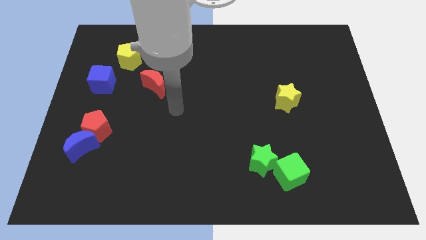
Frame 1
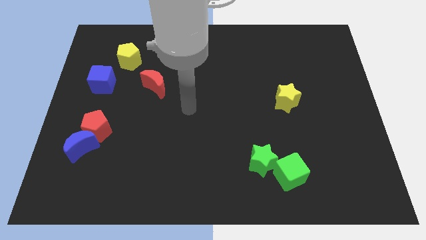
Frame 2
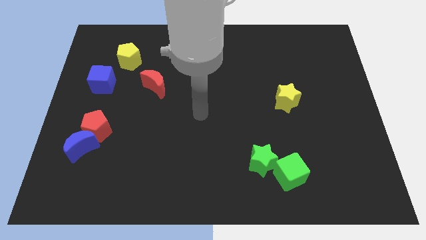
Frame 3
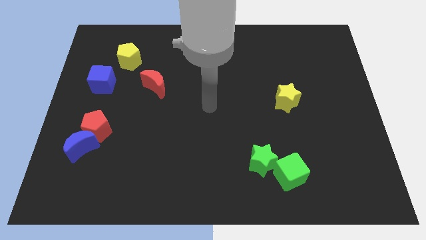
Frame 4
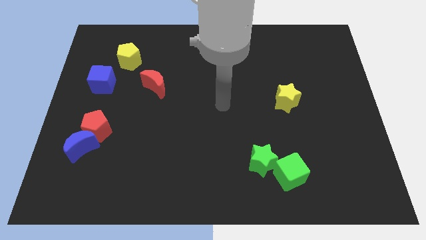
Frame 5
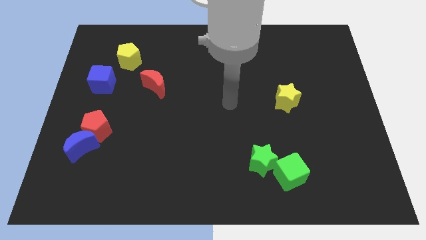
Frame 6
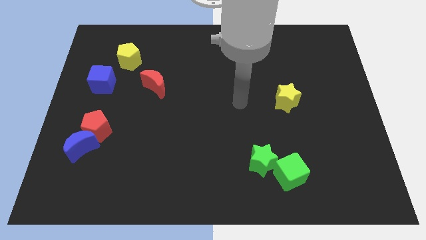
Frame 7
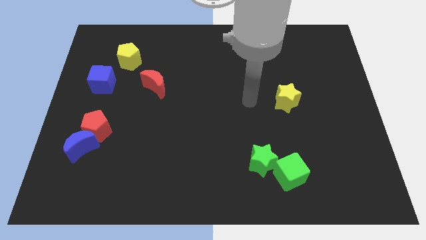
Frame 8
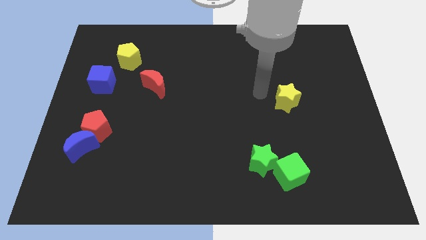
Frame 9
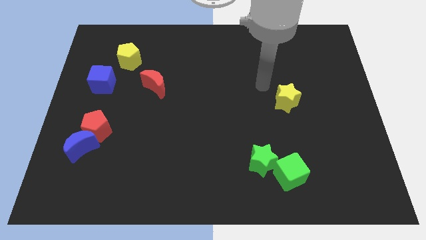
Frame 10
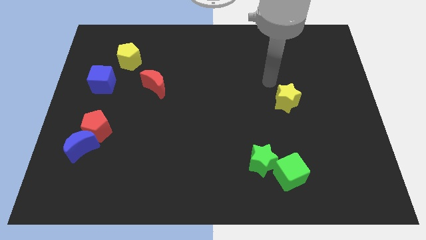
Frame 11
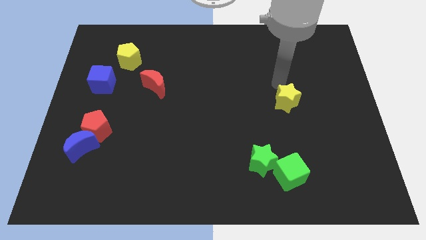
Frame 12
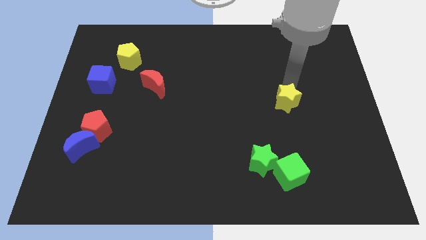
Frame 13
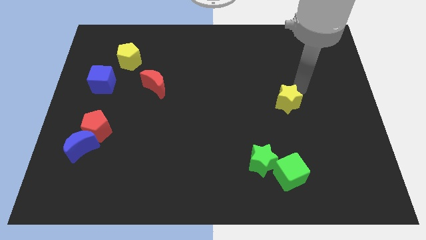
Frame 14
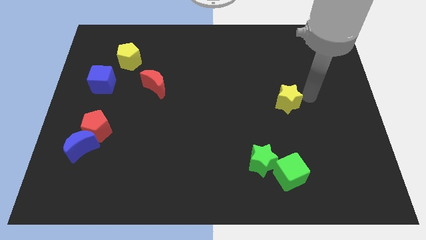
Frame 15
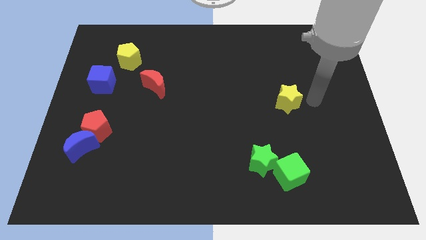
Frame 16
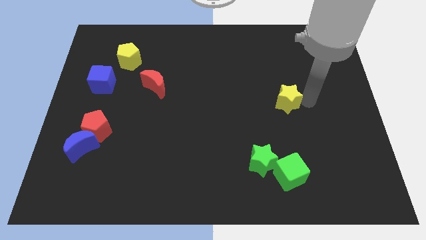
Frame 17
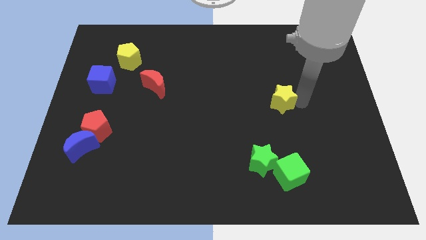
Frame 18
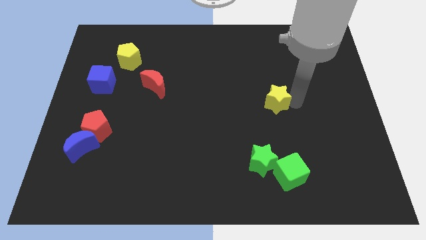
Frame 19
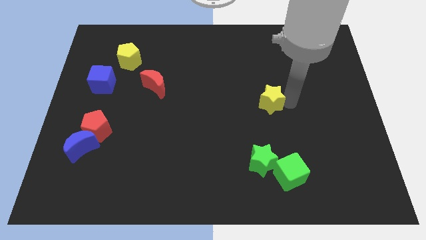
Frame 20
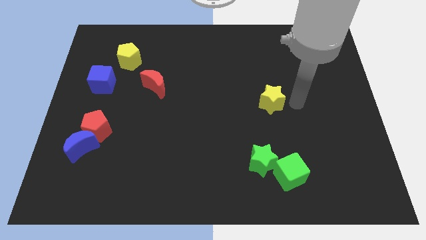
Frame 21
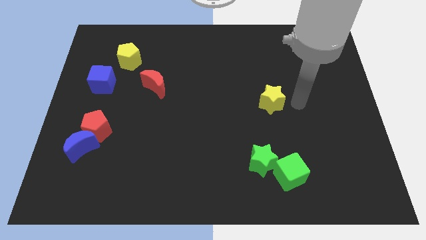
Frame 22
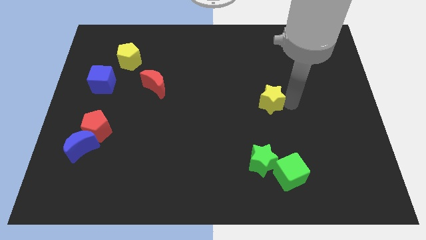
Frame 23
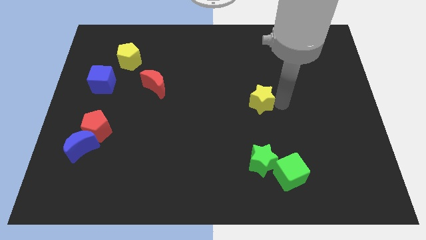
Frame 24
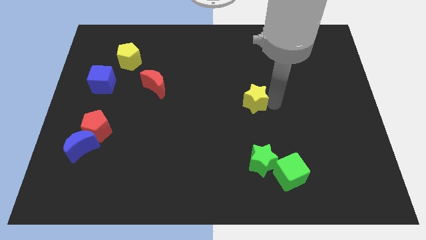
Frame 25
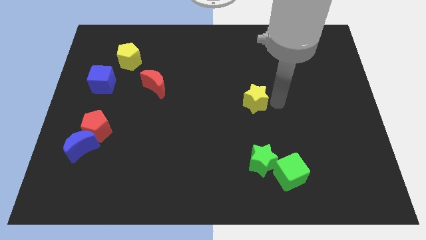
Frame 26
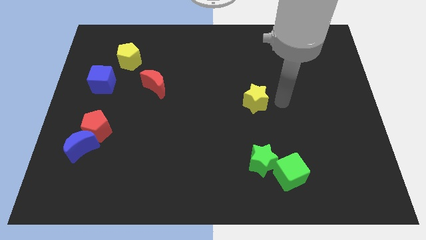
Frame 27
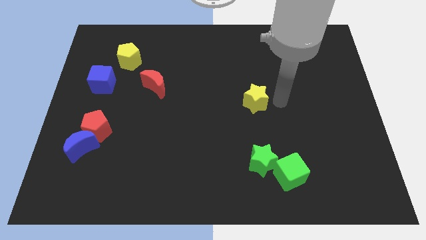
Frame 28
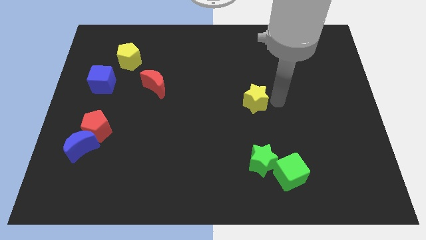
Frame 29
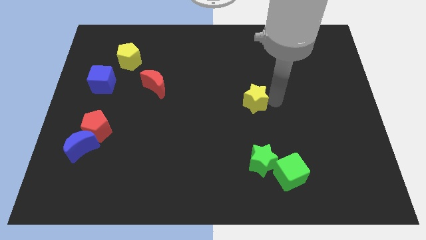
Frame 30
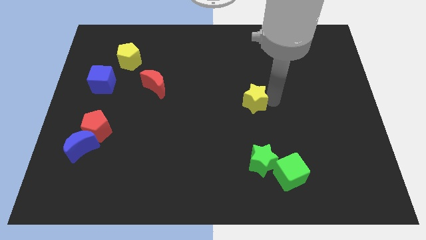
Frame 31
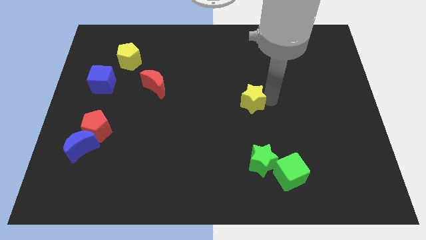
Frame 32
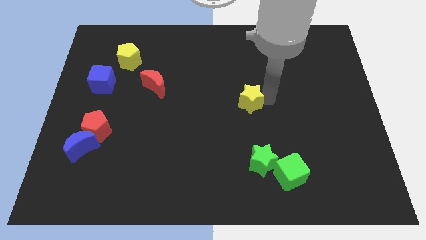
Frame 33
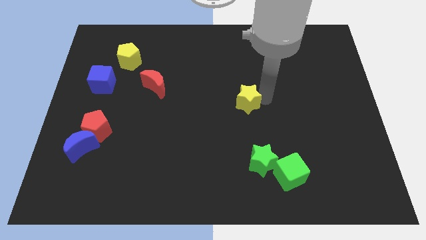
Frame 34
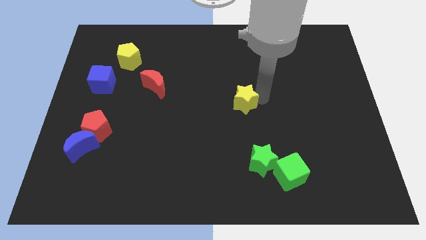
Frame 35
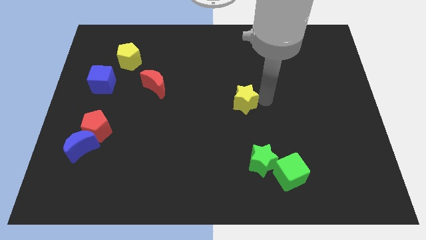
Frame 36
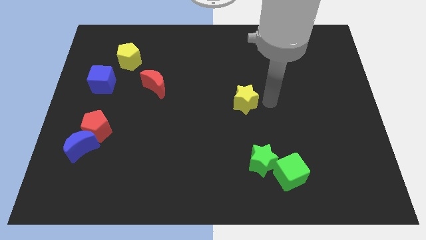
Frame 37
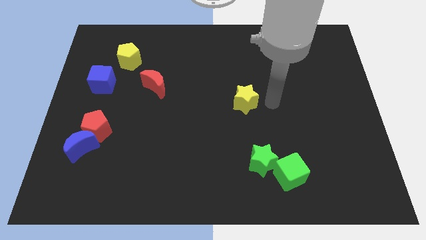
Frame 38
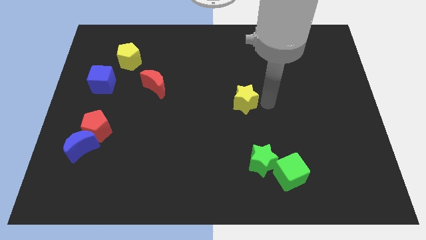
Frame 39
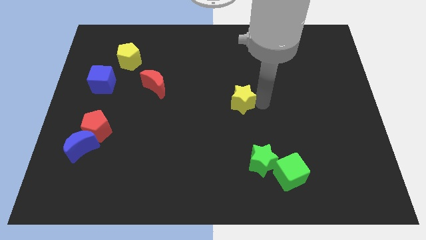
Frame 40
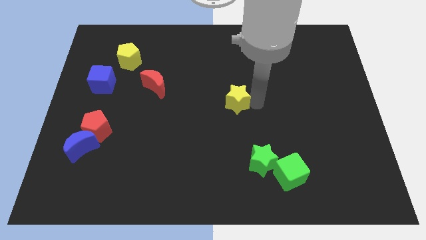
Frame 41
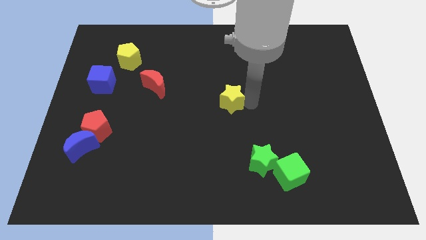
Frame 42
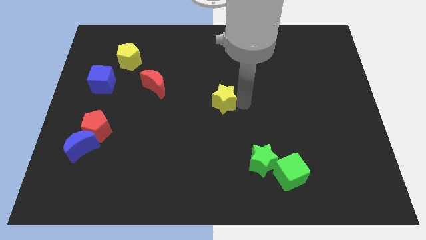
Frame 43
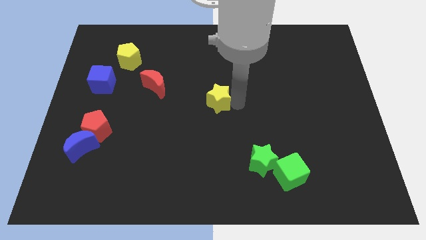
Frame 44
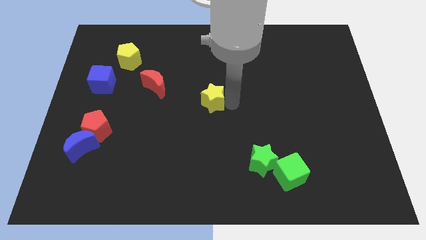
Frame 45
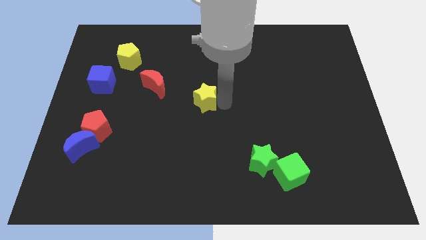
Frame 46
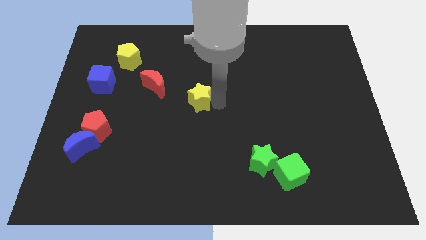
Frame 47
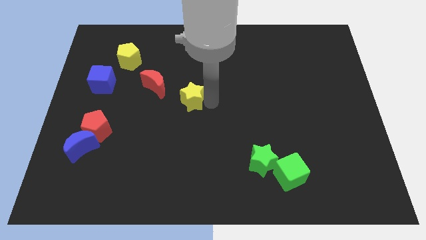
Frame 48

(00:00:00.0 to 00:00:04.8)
put the yellow star to the bottom right side of the red moon

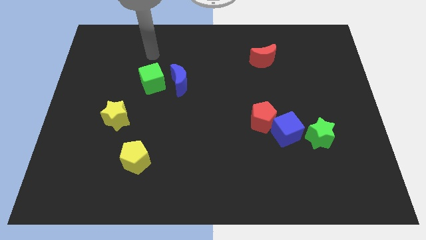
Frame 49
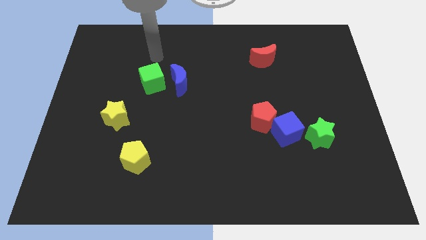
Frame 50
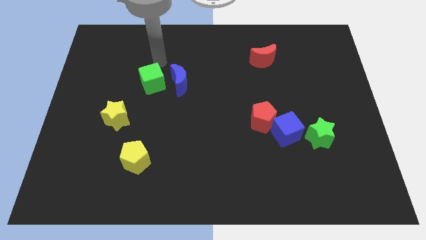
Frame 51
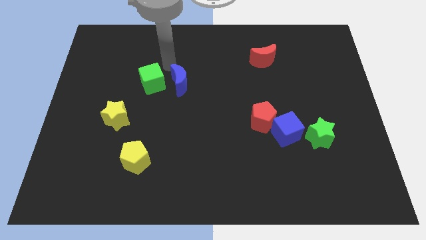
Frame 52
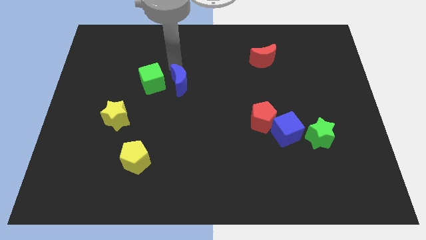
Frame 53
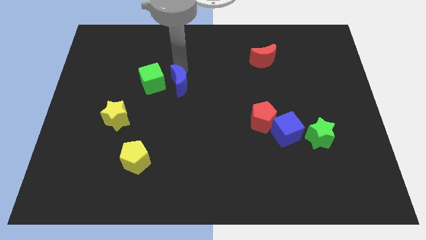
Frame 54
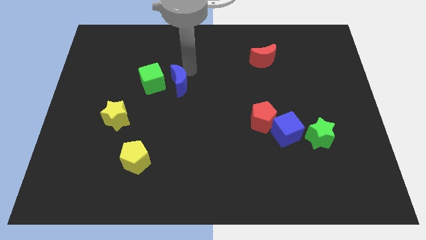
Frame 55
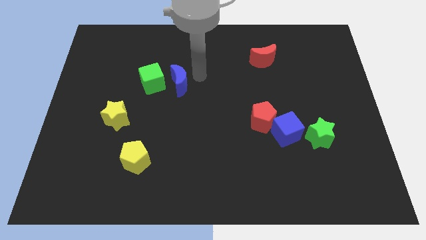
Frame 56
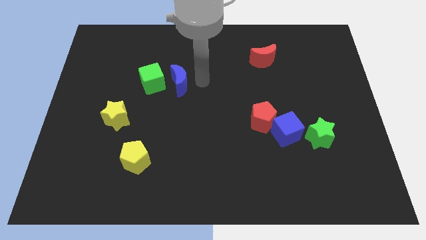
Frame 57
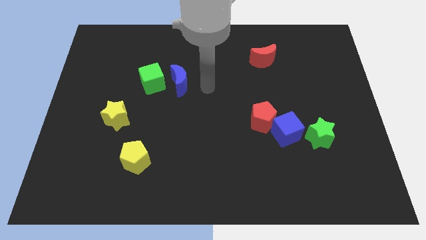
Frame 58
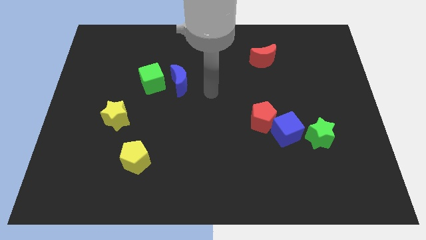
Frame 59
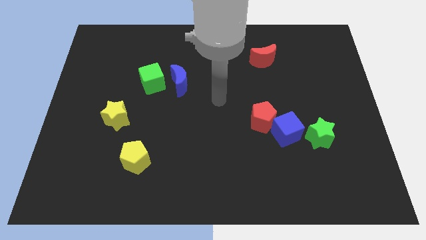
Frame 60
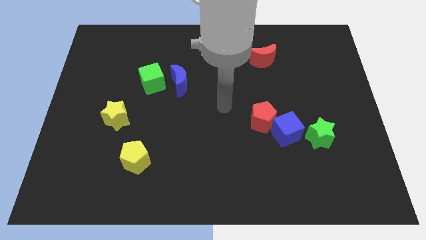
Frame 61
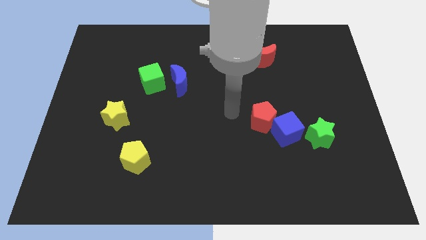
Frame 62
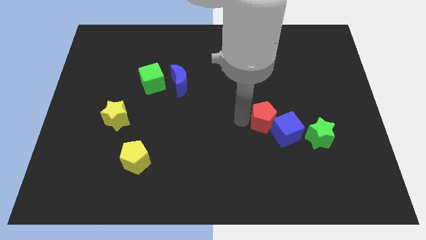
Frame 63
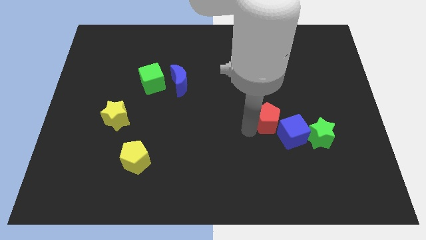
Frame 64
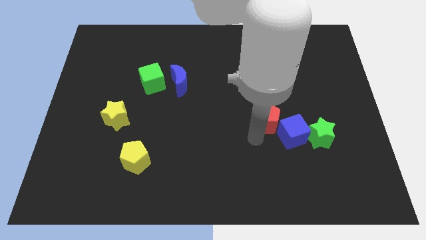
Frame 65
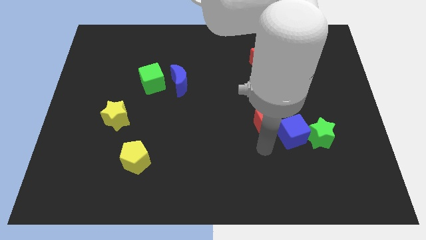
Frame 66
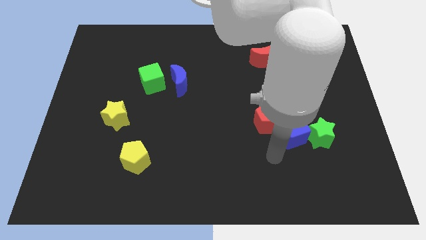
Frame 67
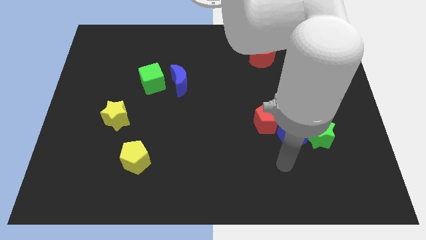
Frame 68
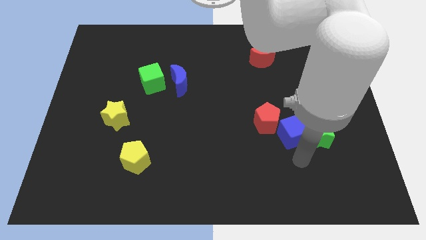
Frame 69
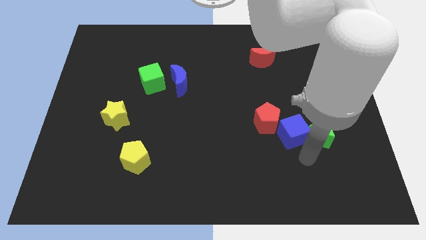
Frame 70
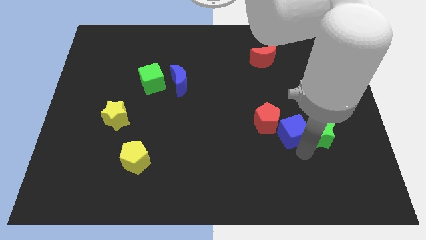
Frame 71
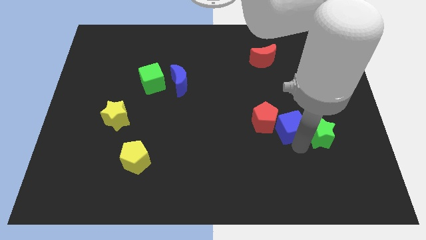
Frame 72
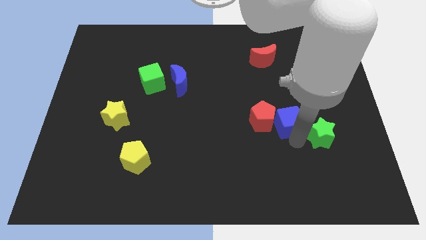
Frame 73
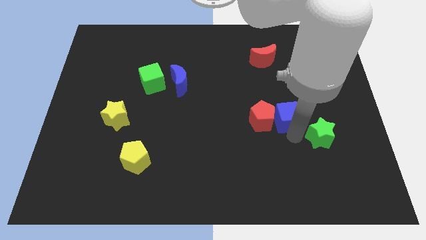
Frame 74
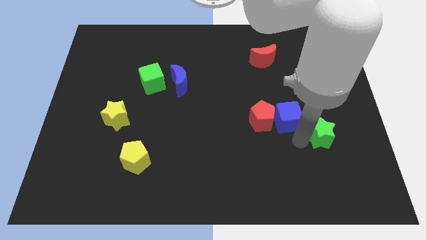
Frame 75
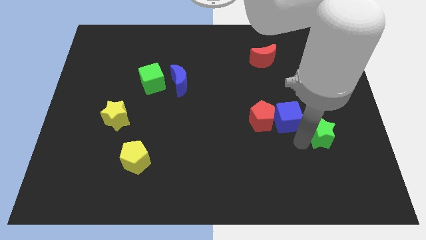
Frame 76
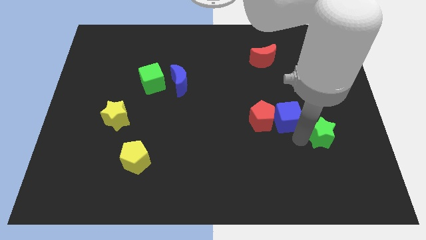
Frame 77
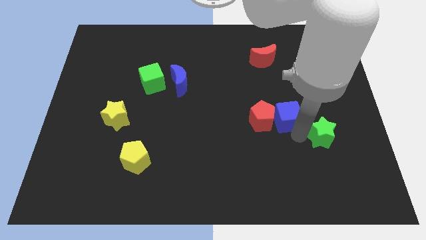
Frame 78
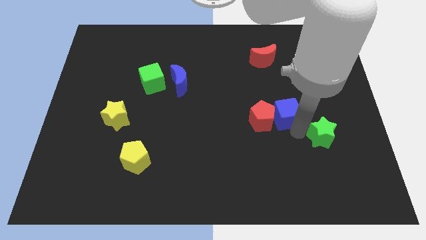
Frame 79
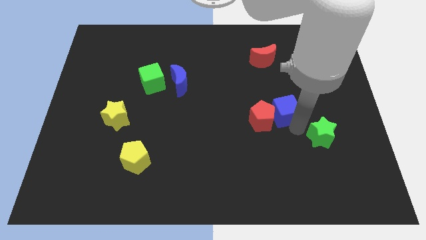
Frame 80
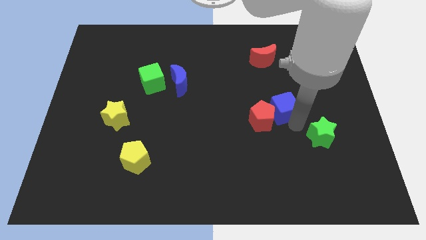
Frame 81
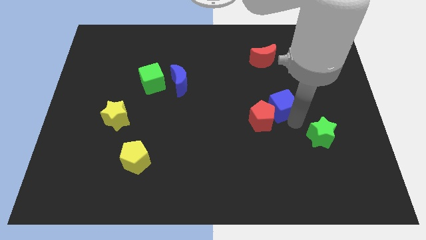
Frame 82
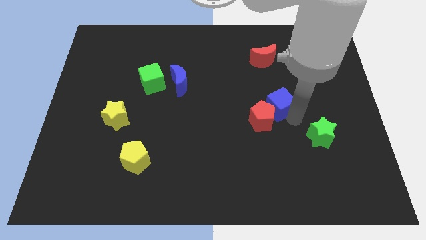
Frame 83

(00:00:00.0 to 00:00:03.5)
put the blue cube to the bottom of the red moon
